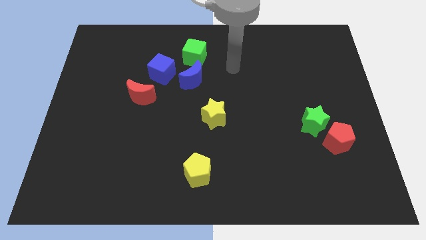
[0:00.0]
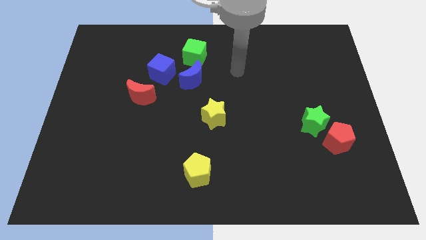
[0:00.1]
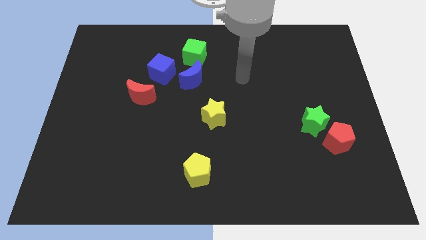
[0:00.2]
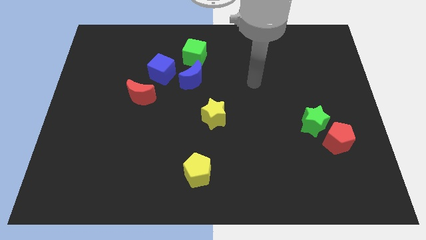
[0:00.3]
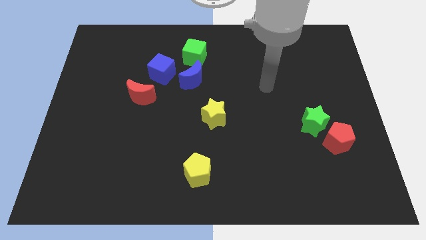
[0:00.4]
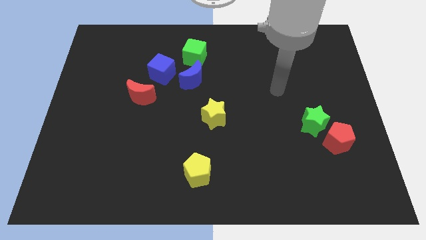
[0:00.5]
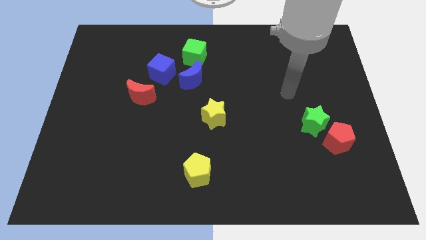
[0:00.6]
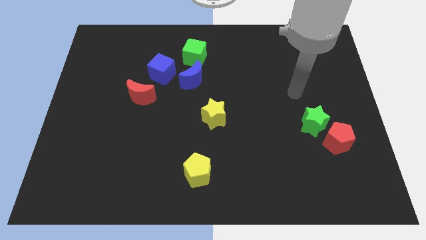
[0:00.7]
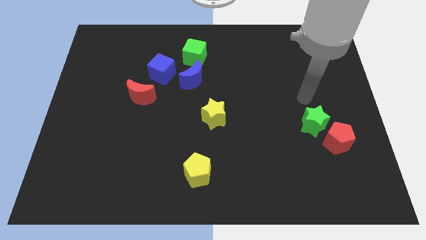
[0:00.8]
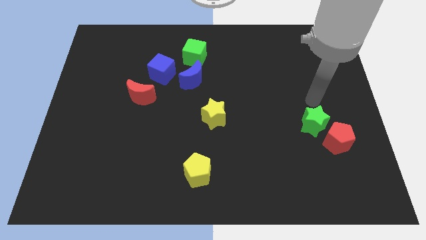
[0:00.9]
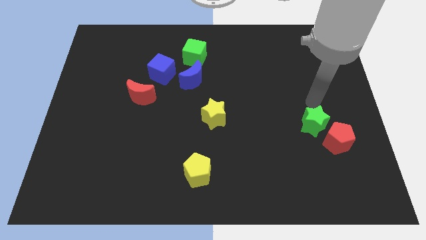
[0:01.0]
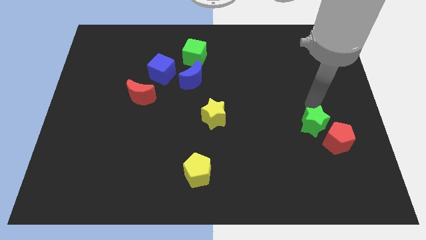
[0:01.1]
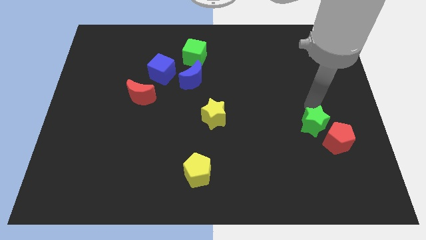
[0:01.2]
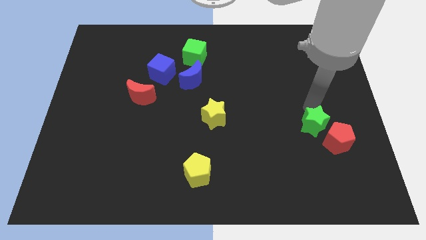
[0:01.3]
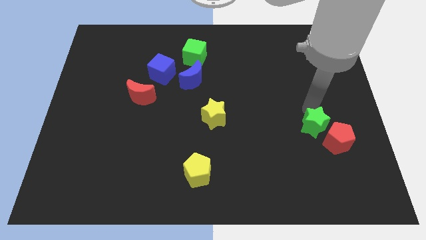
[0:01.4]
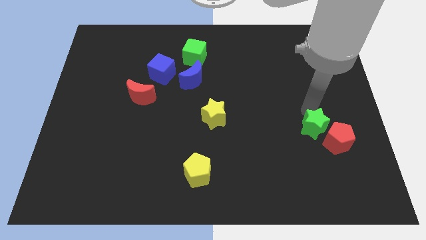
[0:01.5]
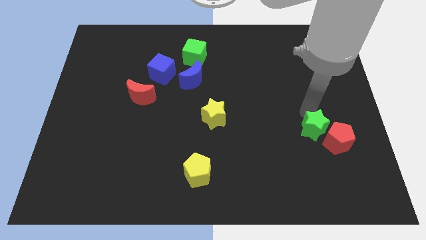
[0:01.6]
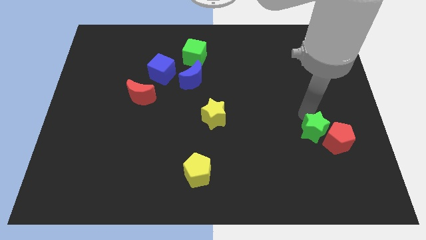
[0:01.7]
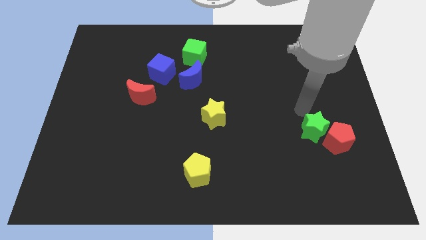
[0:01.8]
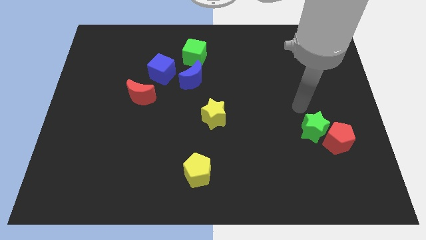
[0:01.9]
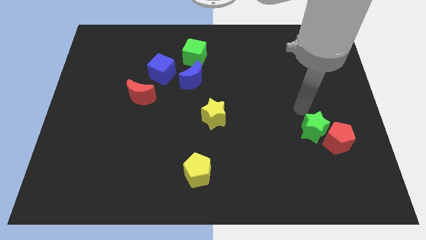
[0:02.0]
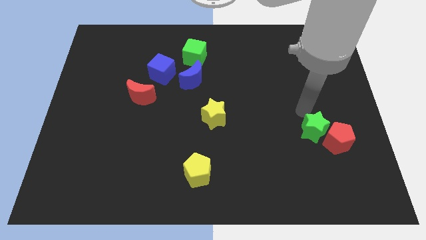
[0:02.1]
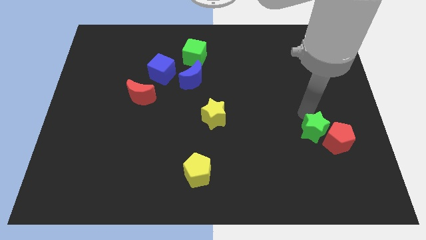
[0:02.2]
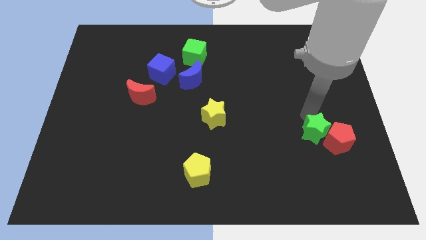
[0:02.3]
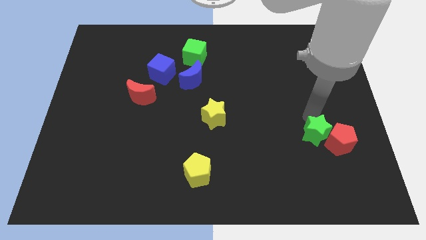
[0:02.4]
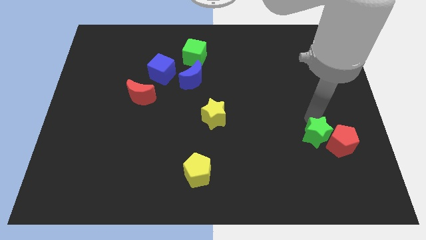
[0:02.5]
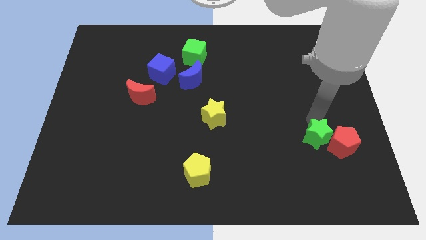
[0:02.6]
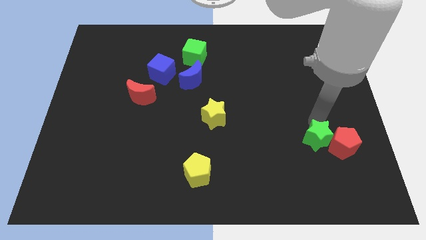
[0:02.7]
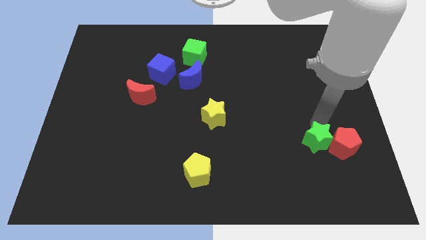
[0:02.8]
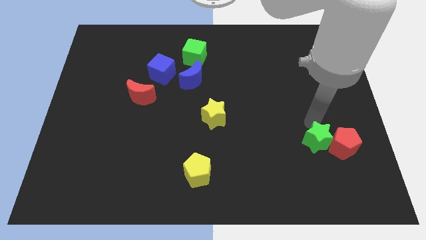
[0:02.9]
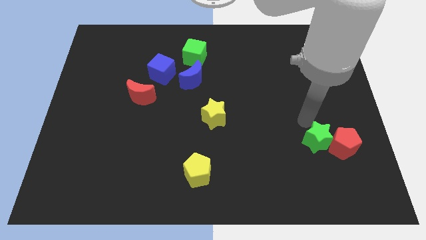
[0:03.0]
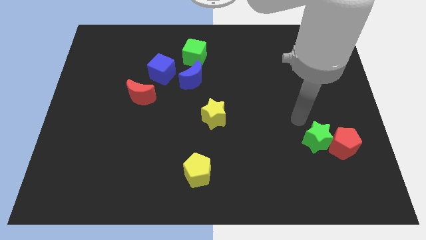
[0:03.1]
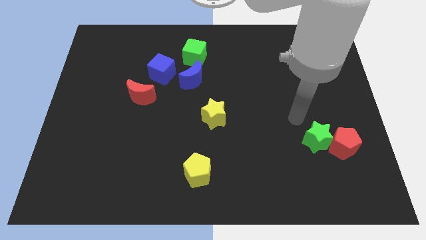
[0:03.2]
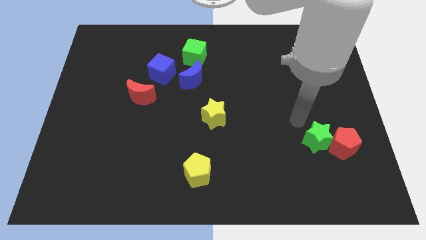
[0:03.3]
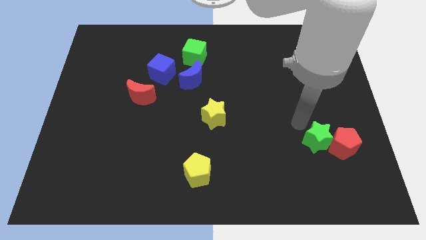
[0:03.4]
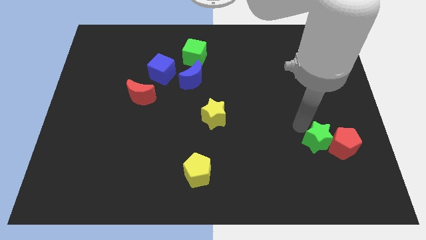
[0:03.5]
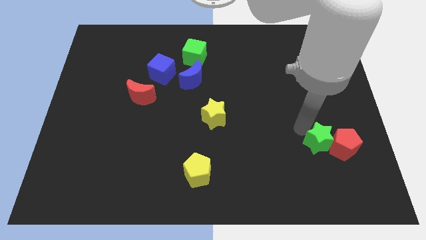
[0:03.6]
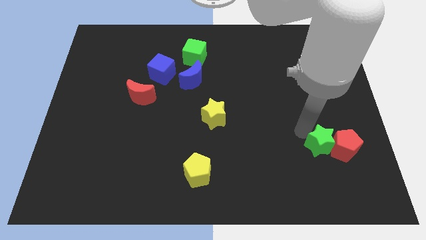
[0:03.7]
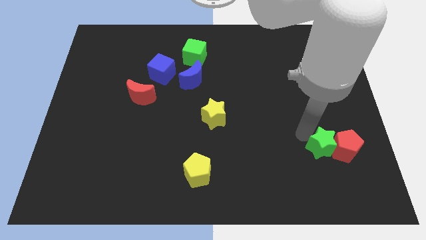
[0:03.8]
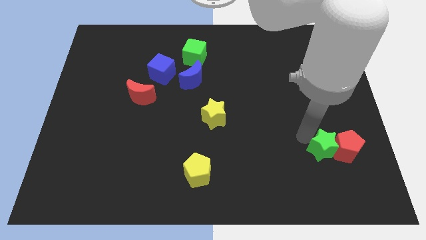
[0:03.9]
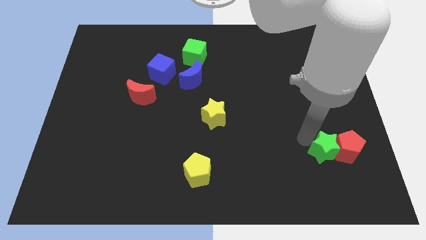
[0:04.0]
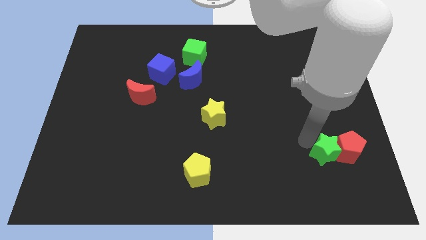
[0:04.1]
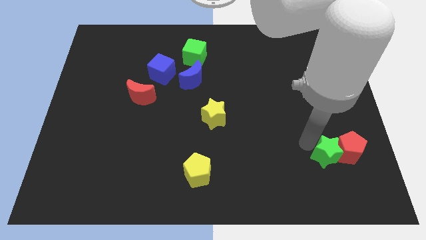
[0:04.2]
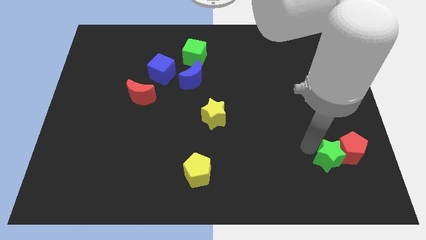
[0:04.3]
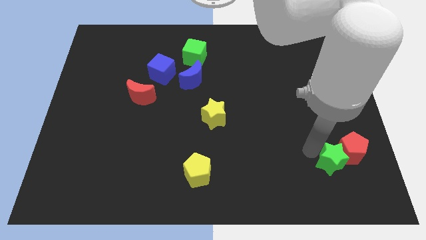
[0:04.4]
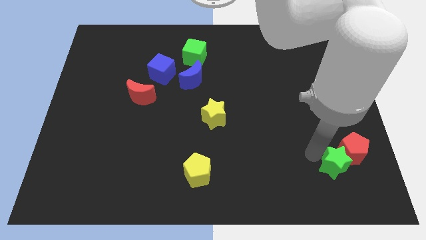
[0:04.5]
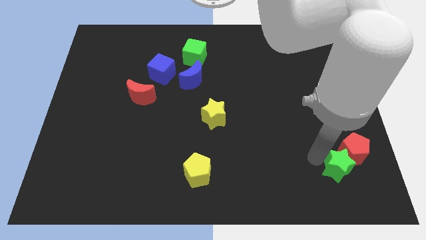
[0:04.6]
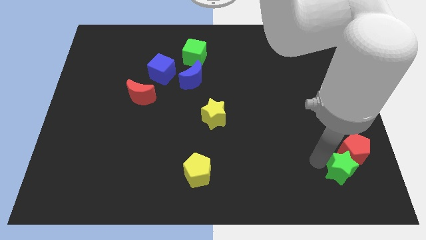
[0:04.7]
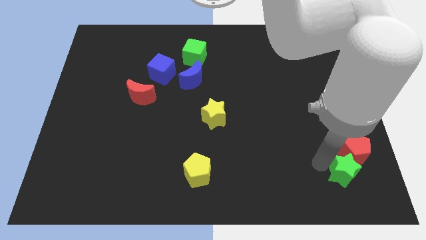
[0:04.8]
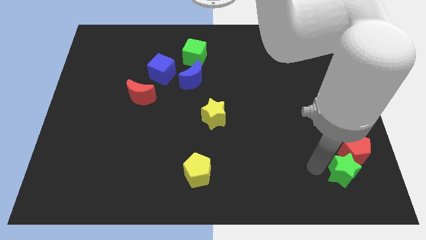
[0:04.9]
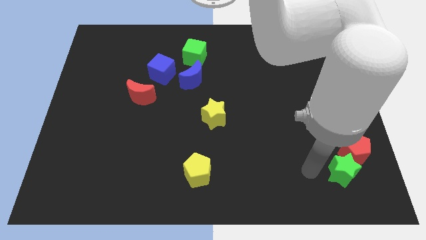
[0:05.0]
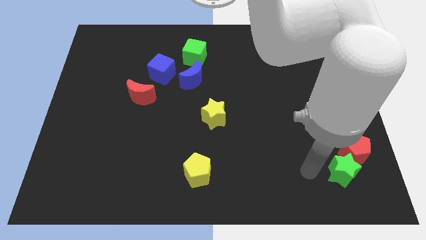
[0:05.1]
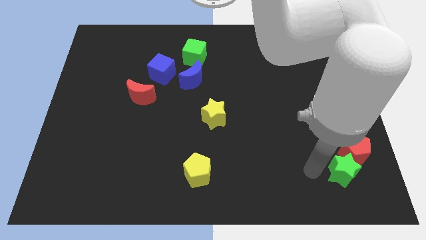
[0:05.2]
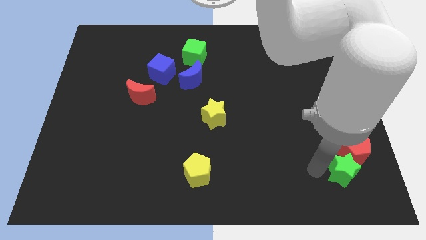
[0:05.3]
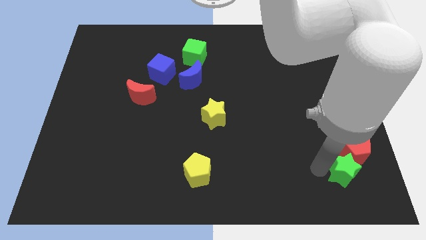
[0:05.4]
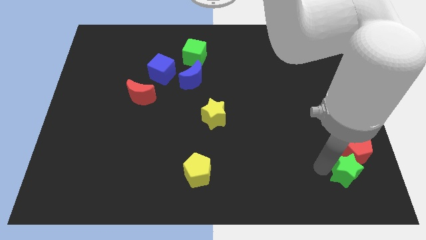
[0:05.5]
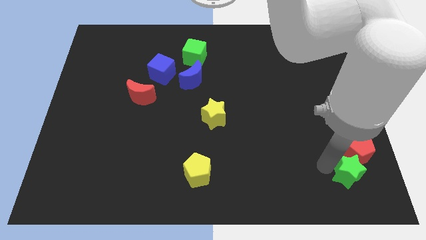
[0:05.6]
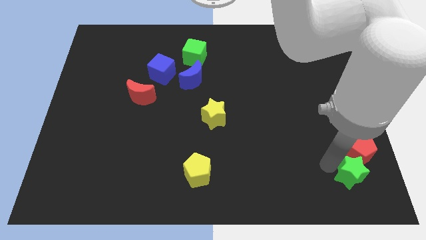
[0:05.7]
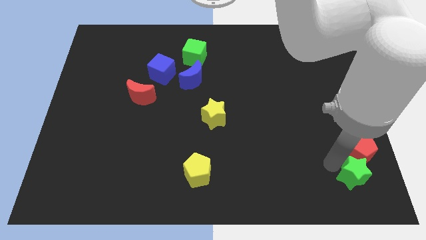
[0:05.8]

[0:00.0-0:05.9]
put the green star to the bottom right corner

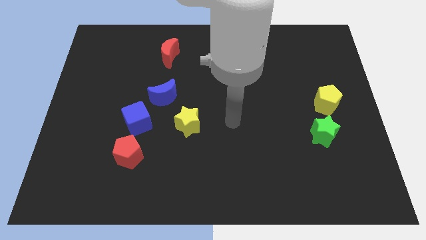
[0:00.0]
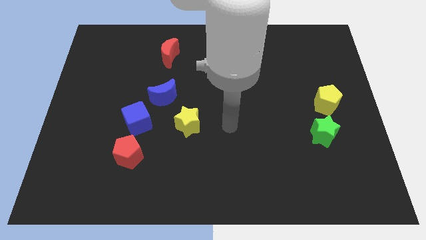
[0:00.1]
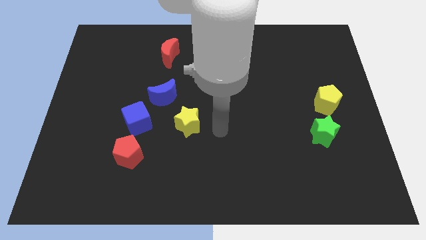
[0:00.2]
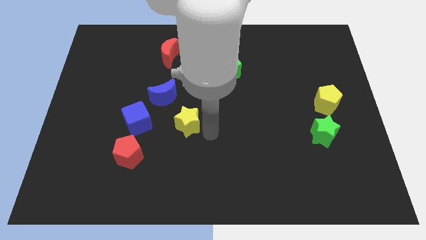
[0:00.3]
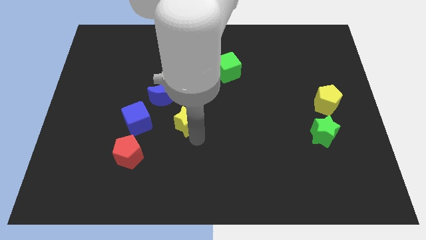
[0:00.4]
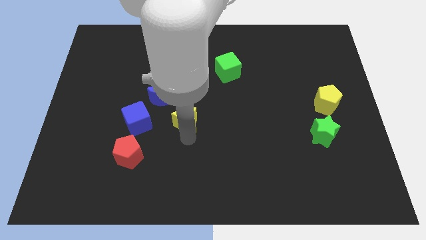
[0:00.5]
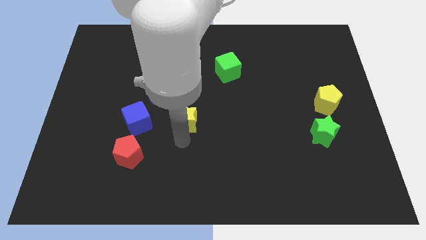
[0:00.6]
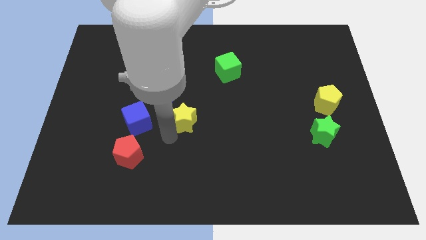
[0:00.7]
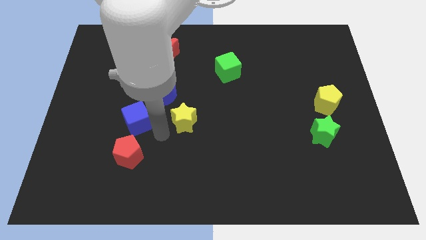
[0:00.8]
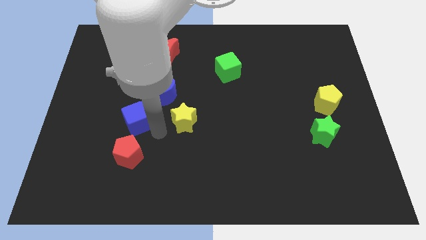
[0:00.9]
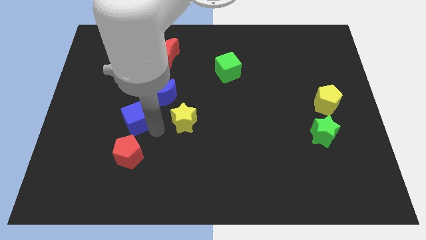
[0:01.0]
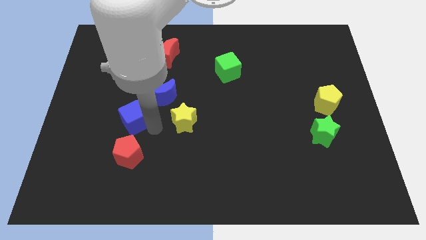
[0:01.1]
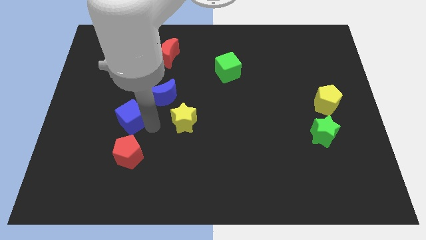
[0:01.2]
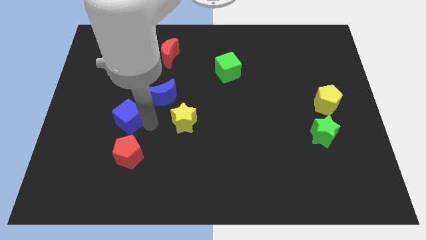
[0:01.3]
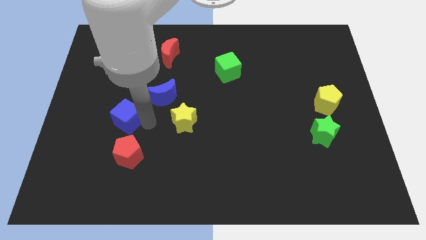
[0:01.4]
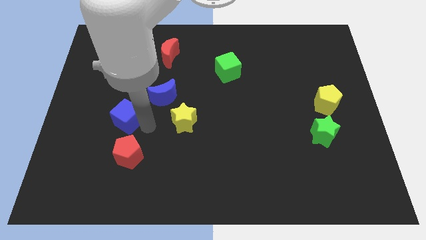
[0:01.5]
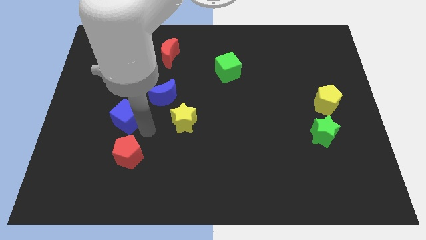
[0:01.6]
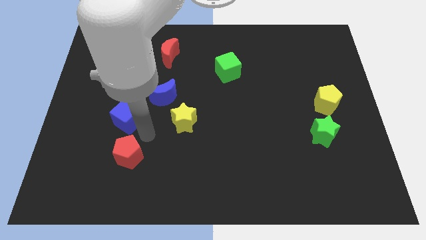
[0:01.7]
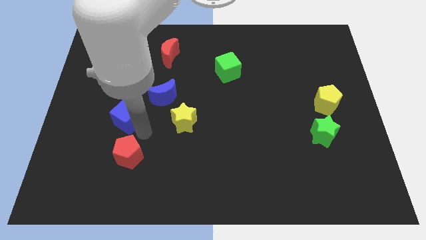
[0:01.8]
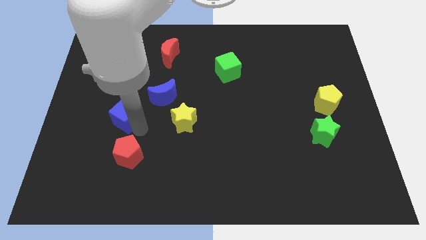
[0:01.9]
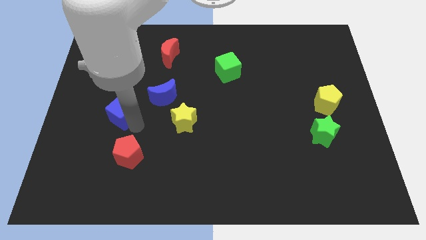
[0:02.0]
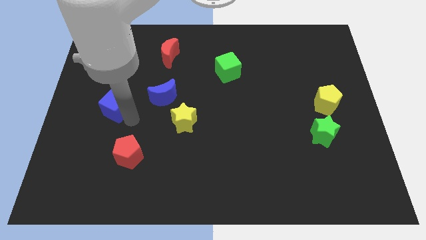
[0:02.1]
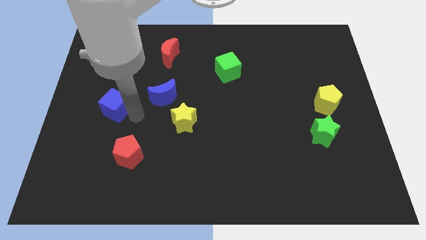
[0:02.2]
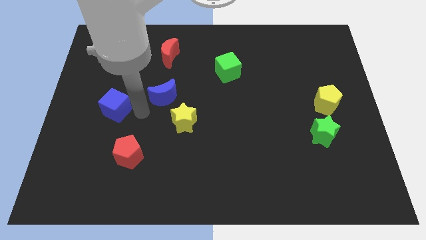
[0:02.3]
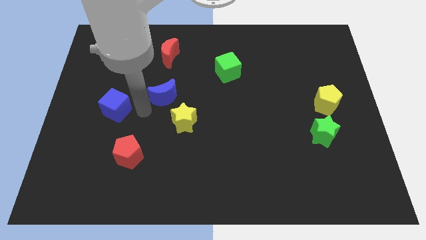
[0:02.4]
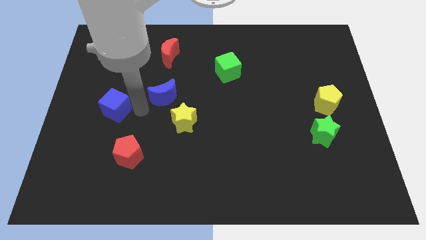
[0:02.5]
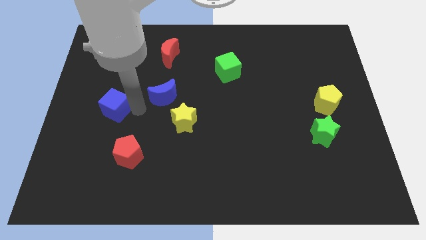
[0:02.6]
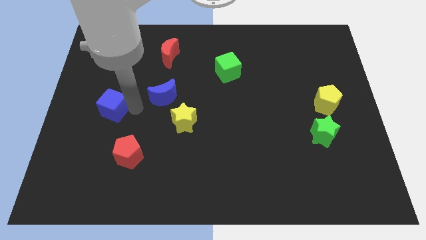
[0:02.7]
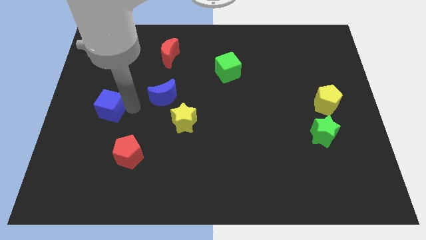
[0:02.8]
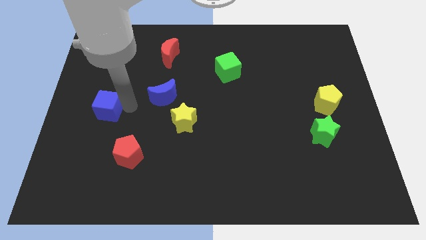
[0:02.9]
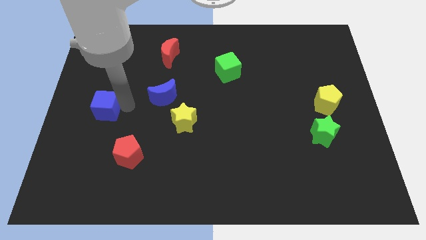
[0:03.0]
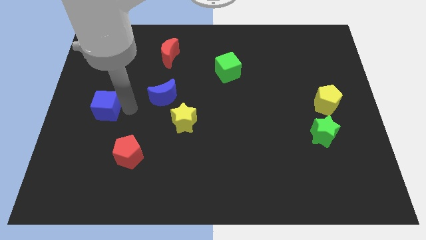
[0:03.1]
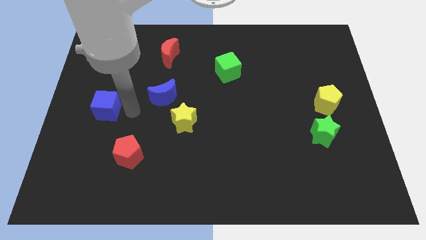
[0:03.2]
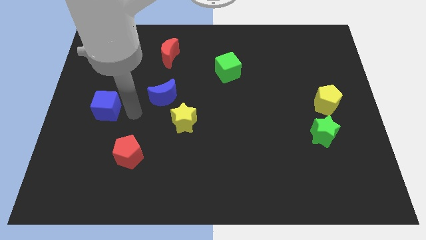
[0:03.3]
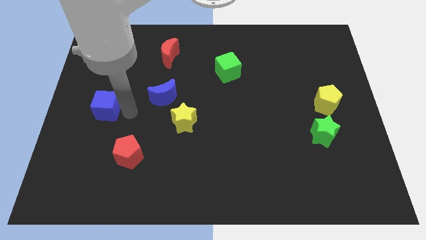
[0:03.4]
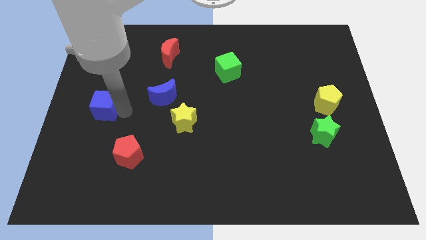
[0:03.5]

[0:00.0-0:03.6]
slide the blue cube to the center left
